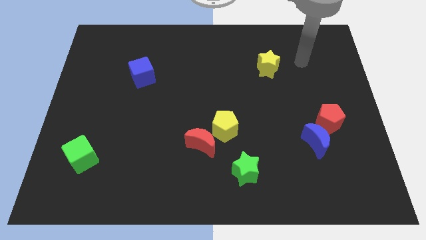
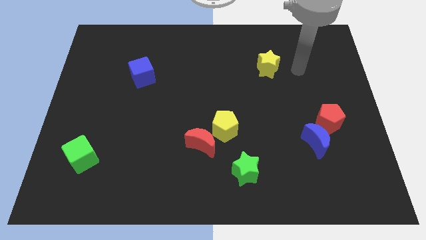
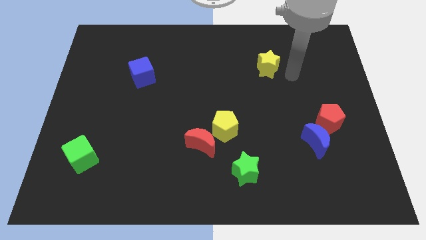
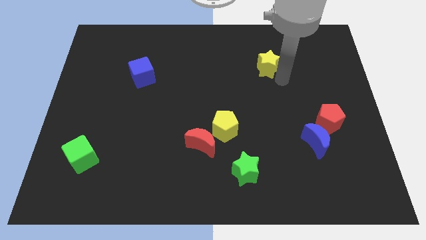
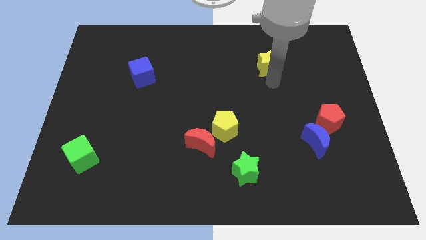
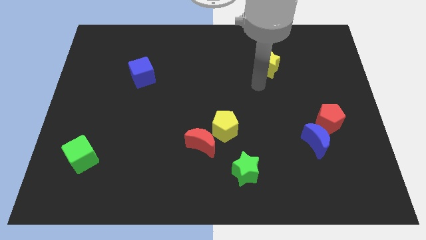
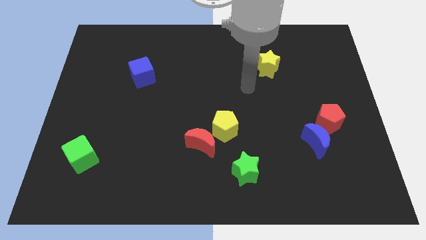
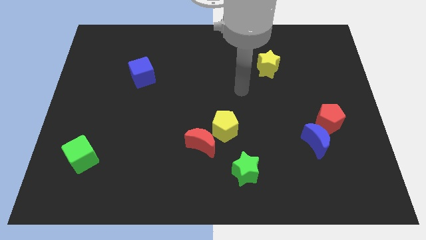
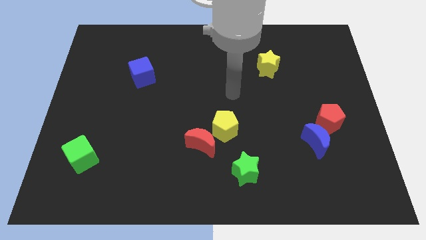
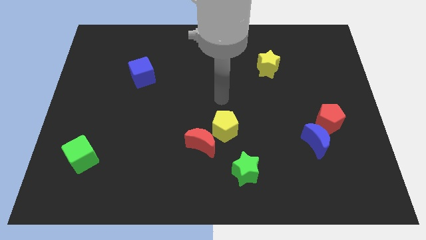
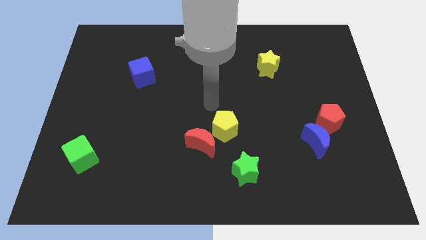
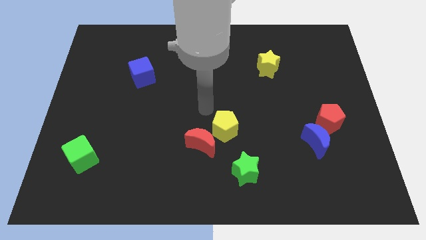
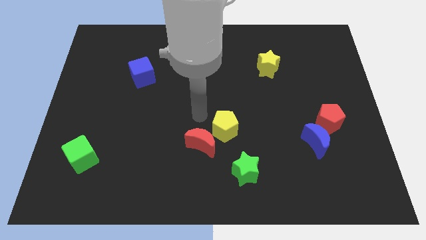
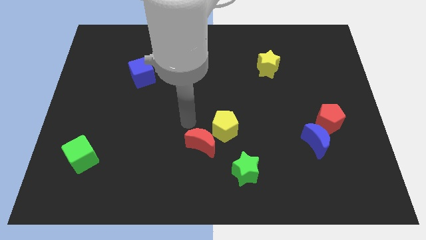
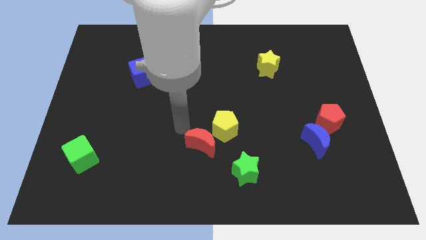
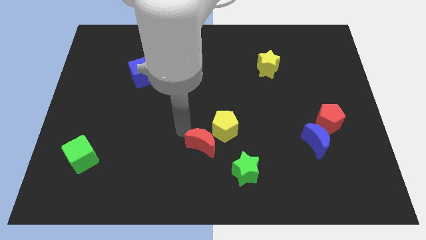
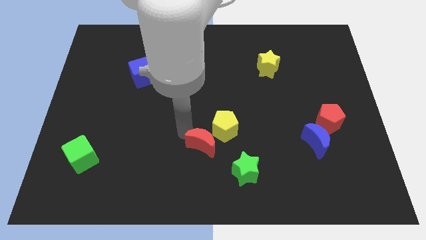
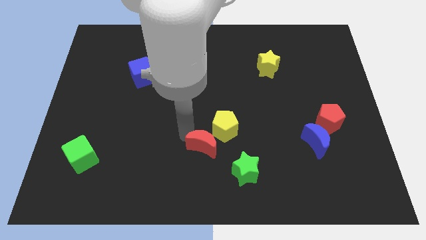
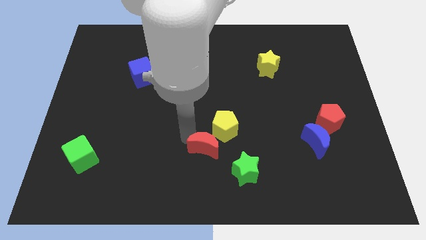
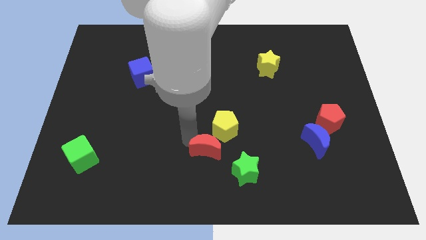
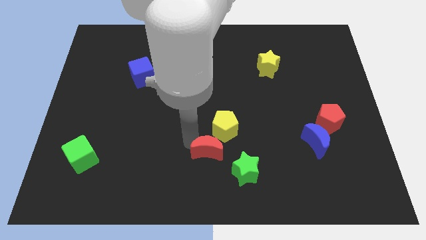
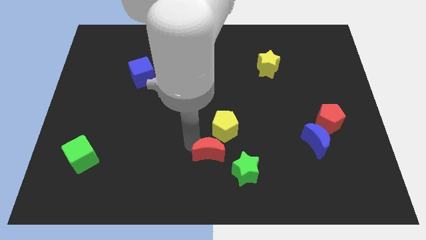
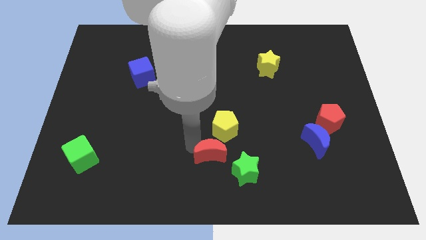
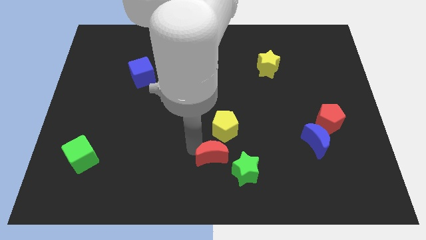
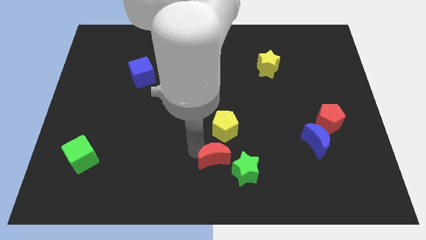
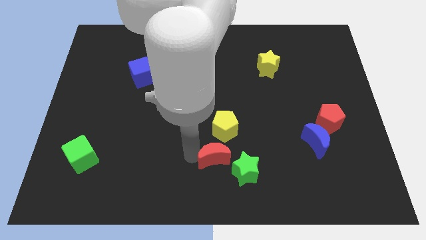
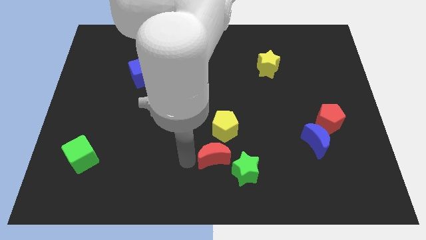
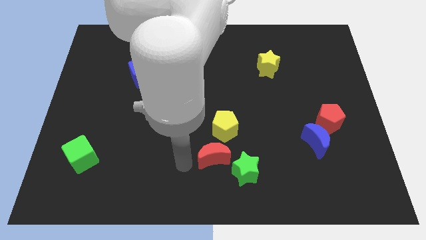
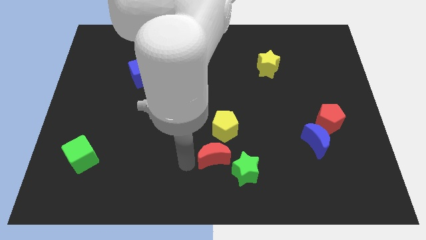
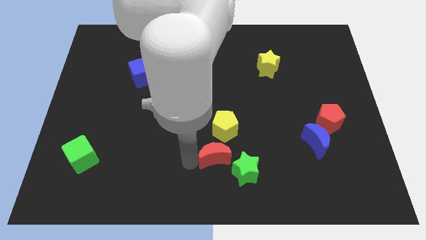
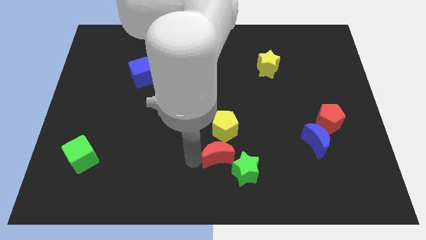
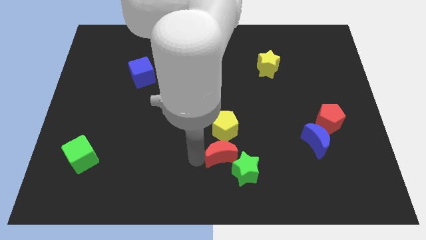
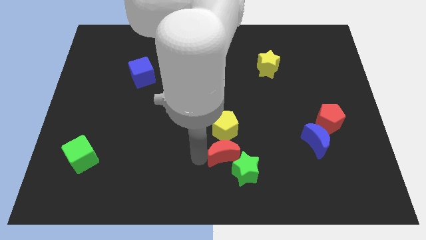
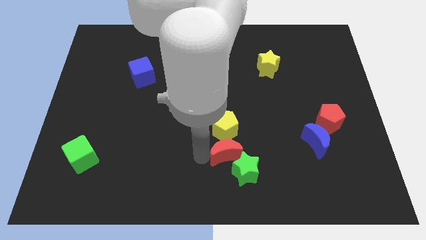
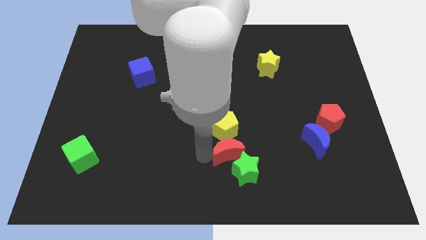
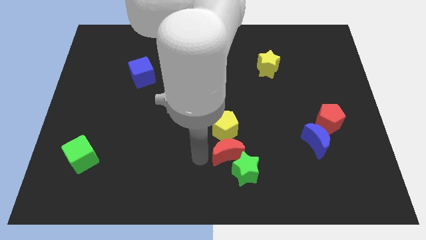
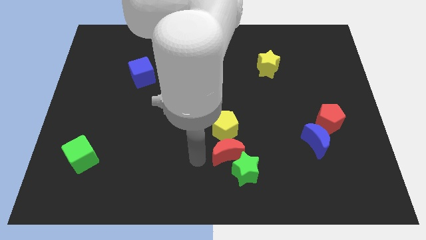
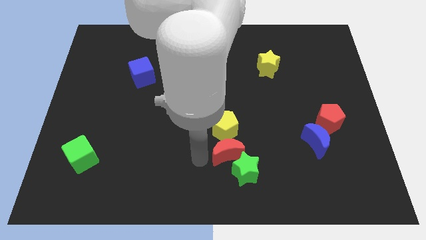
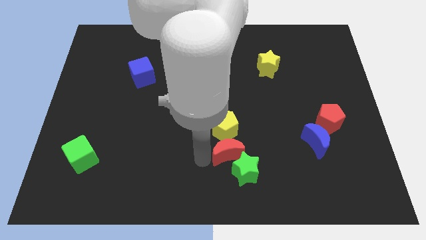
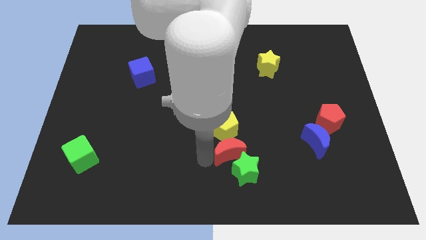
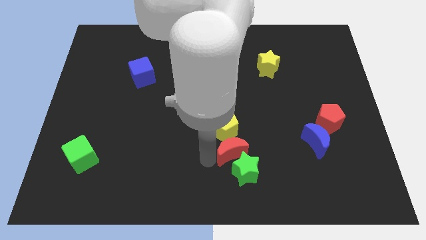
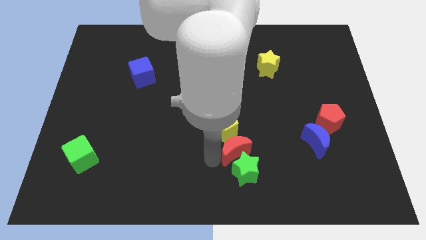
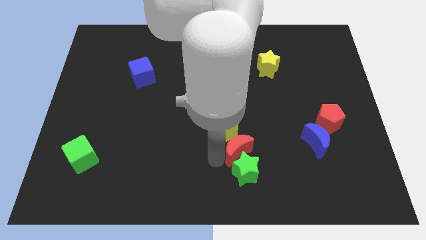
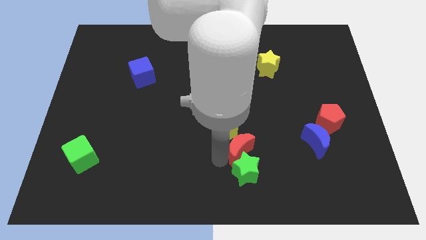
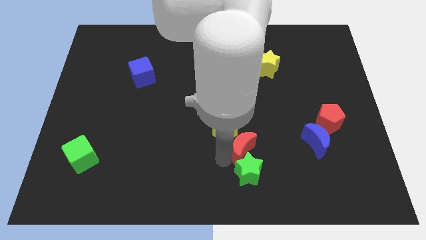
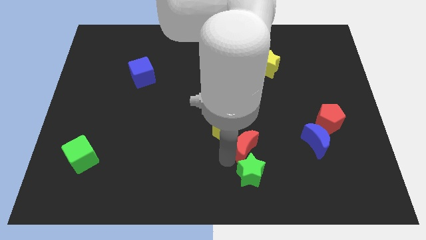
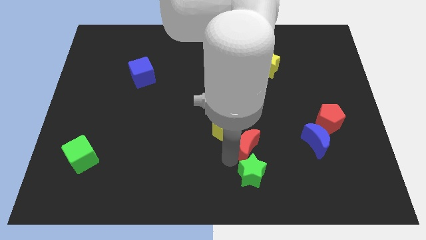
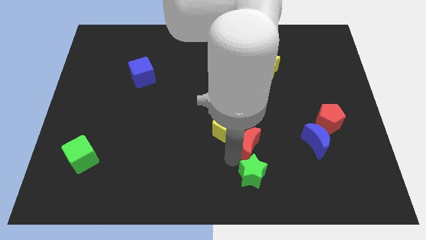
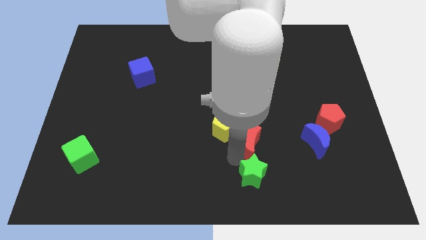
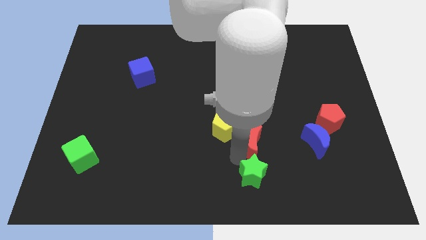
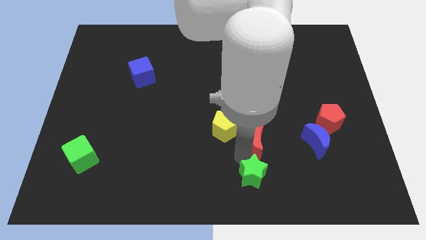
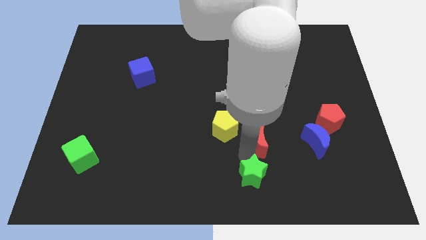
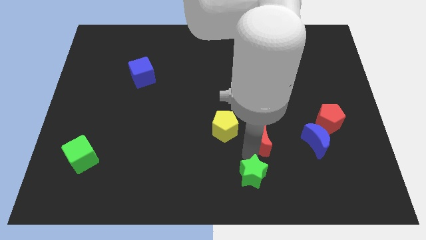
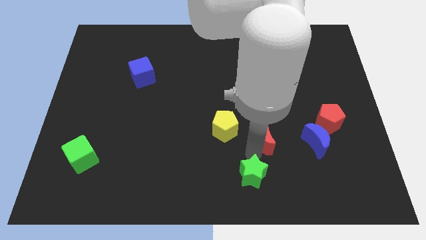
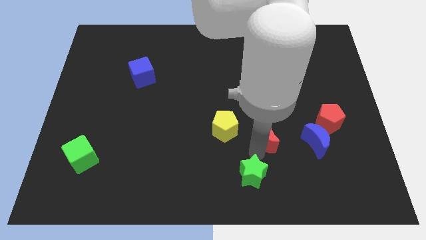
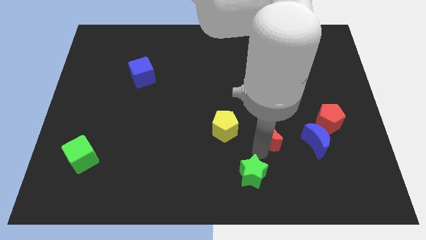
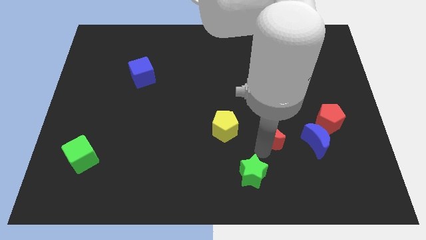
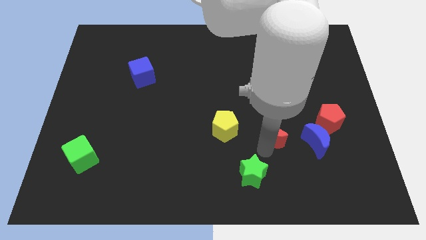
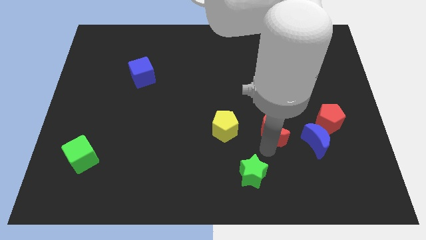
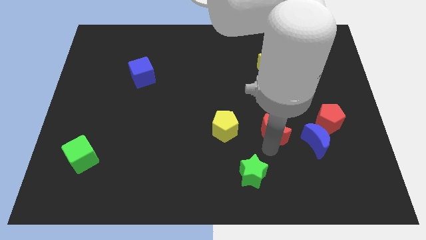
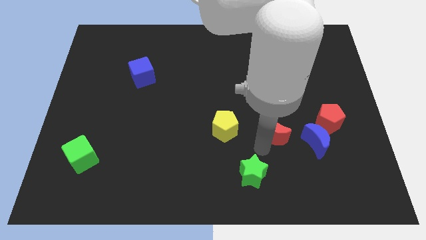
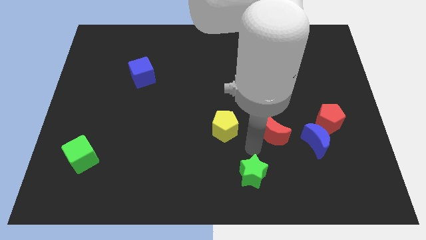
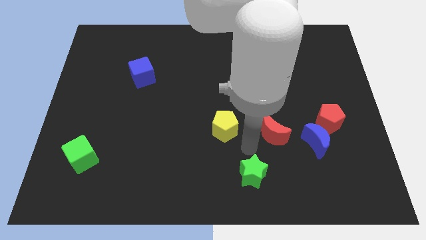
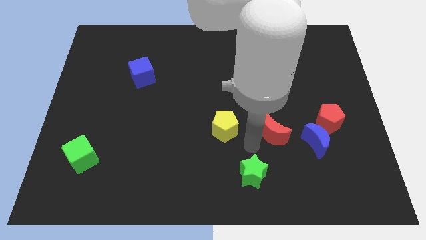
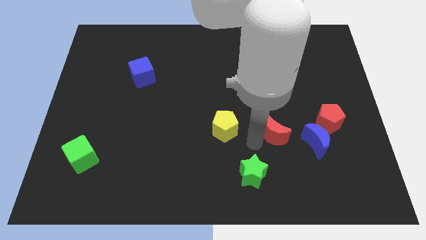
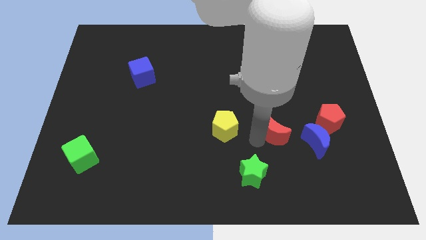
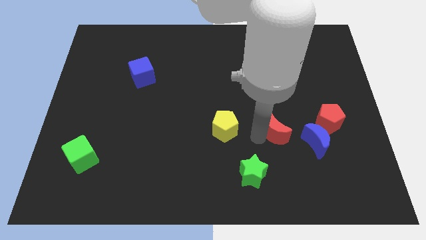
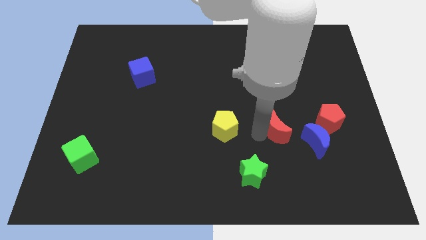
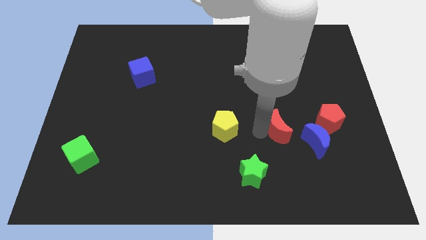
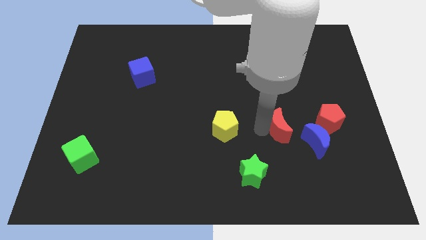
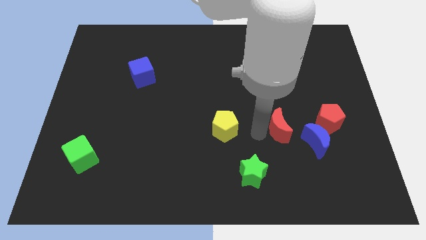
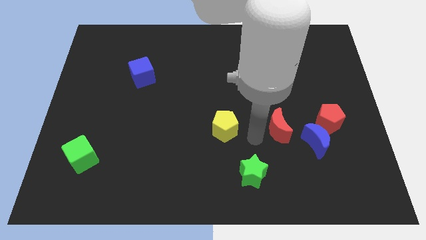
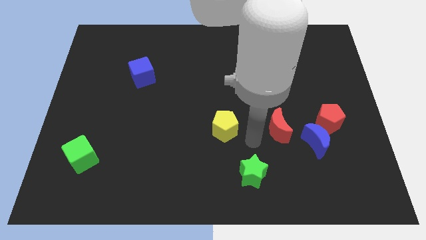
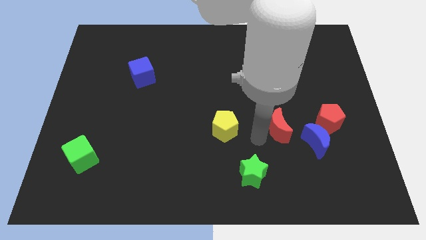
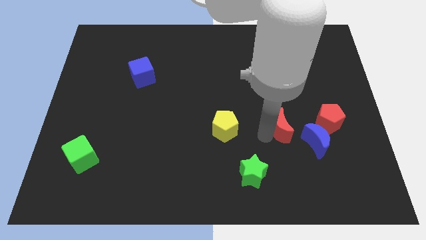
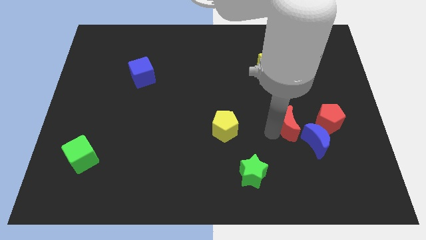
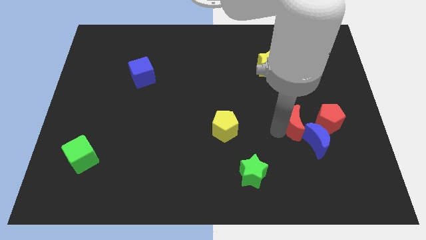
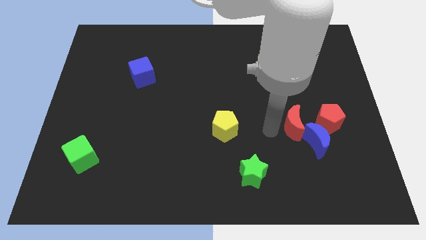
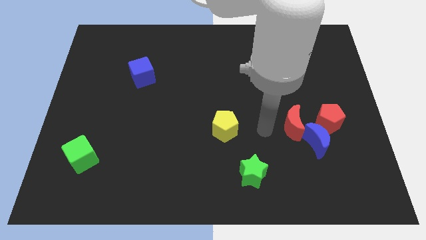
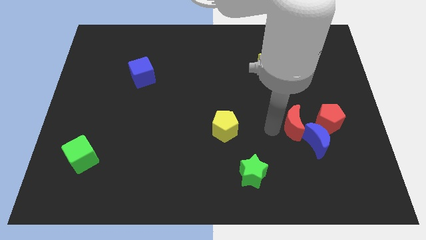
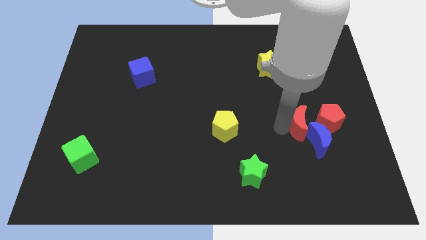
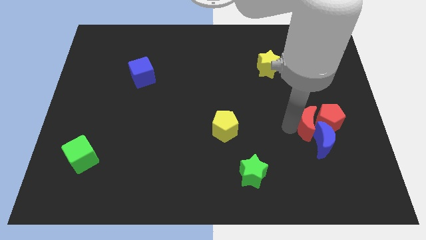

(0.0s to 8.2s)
move the red moon towards the red pentagon

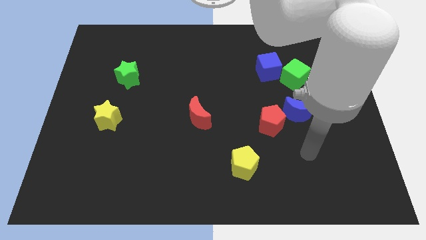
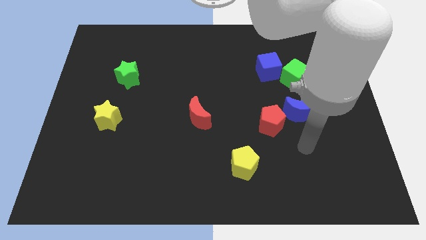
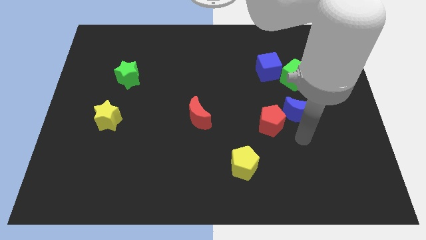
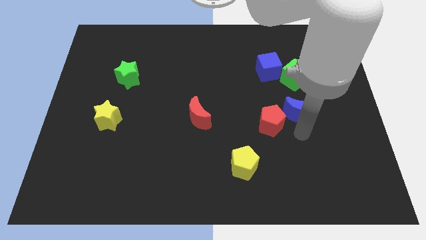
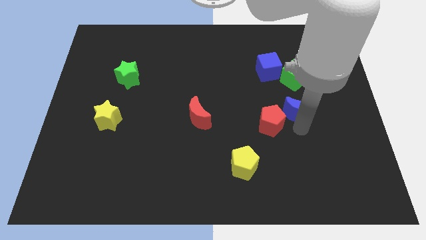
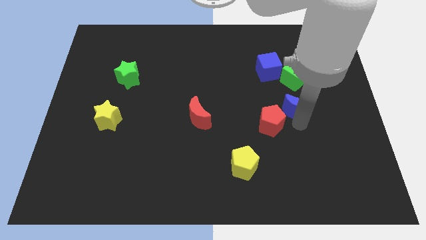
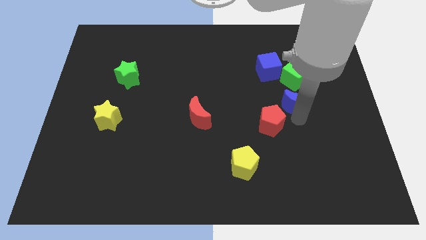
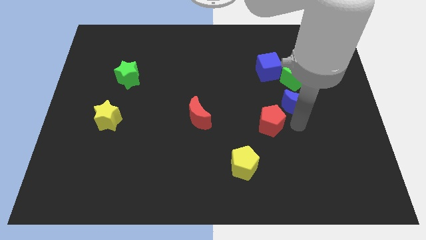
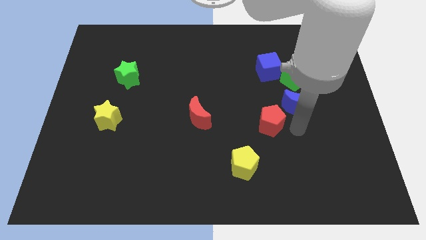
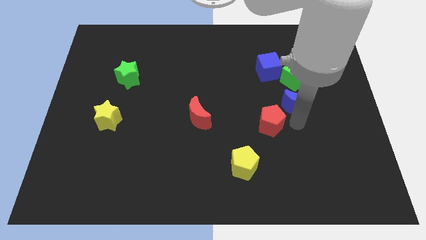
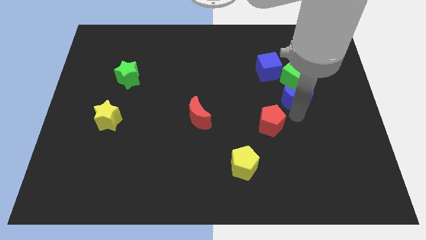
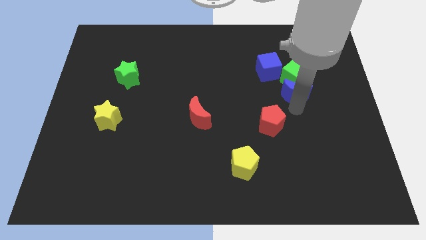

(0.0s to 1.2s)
slide the blue moon next to the green cube
